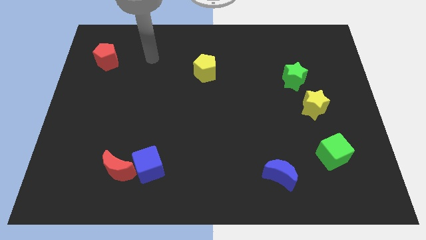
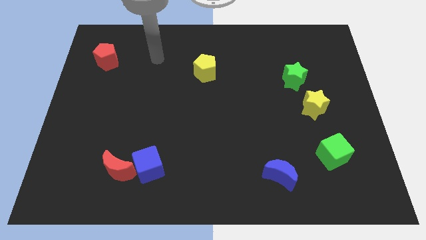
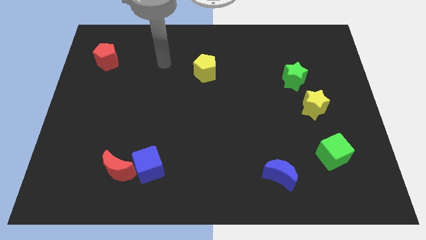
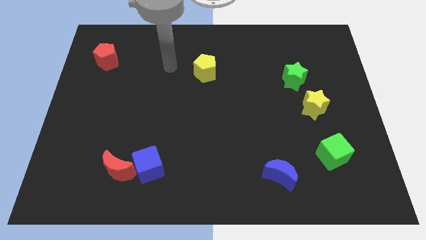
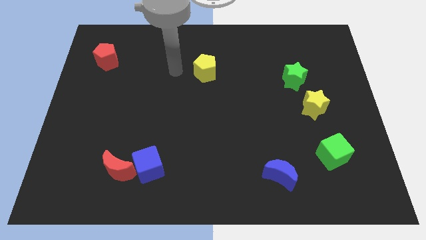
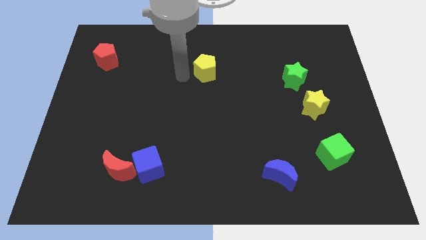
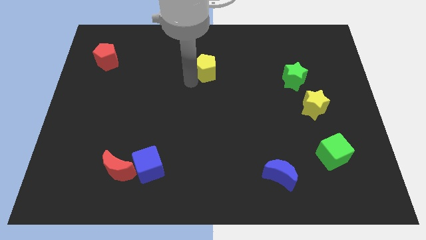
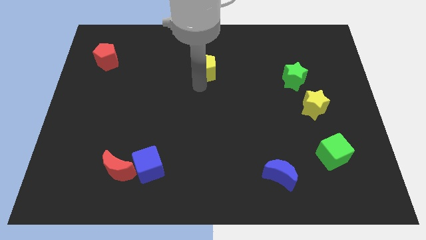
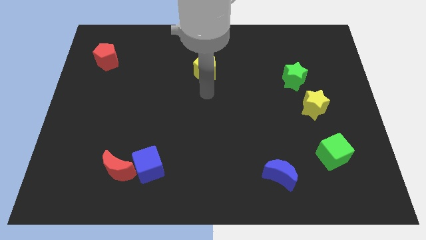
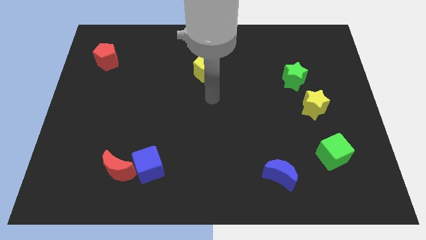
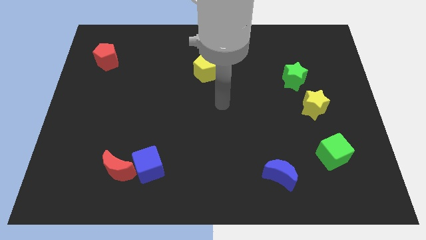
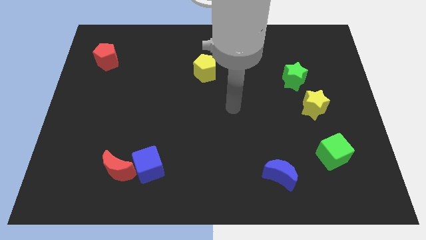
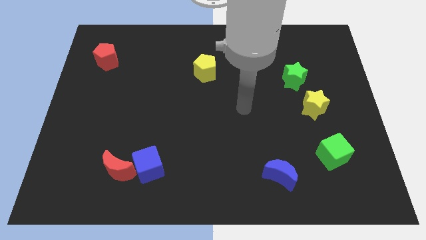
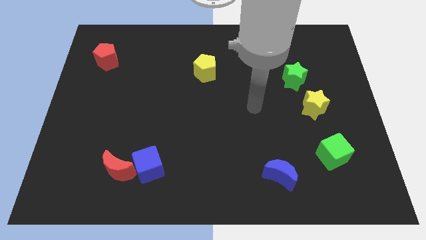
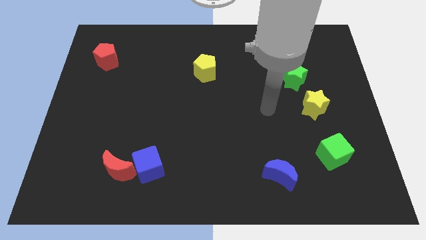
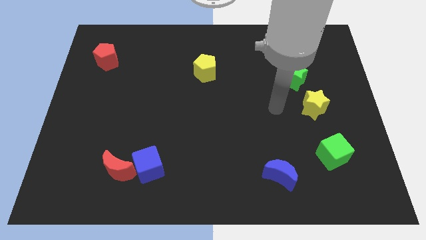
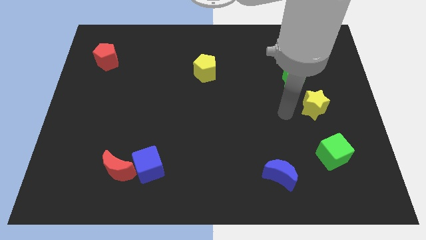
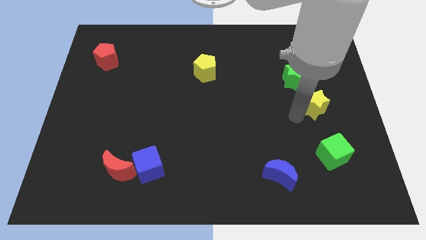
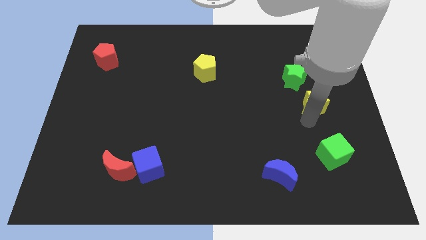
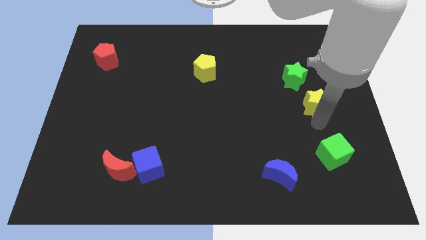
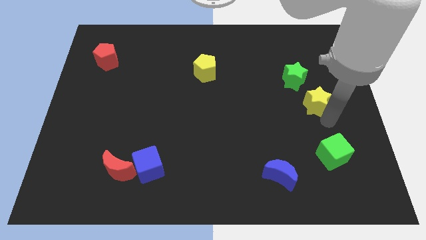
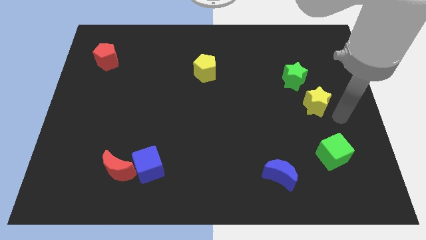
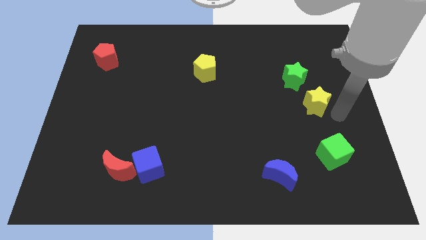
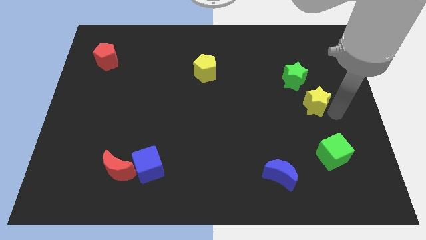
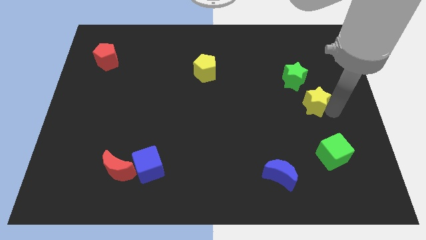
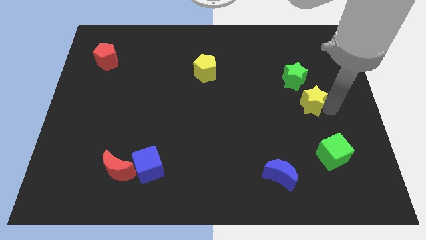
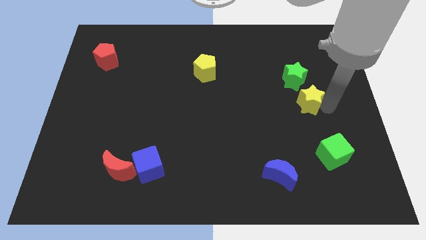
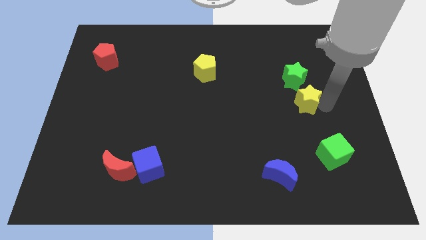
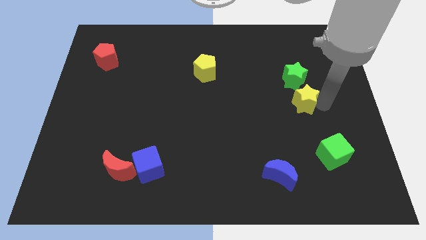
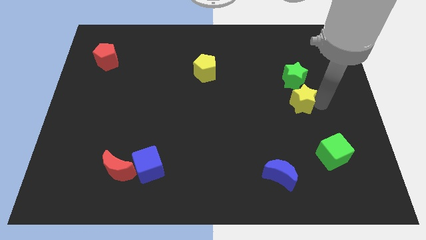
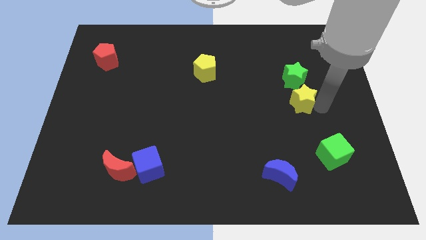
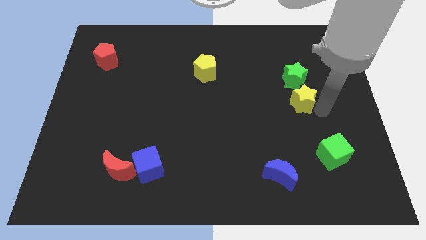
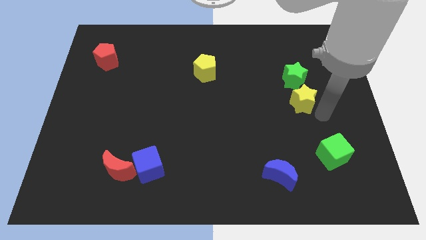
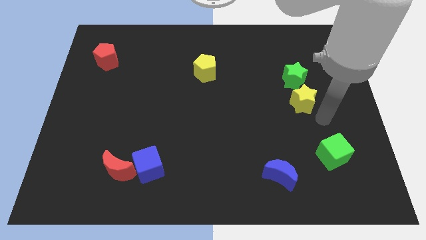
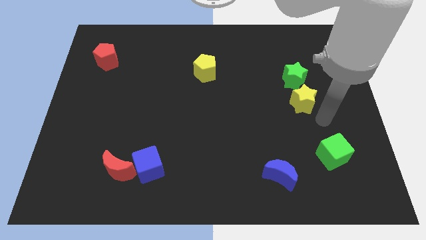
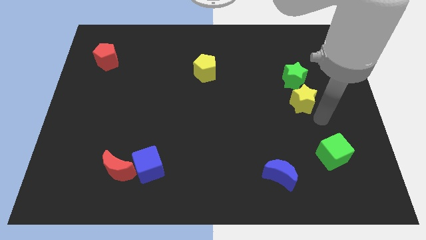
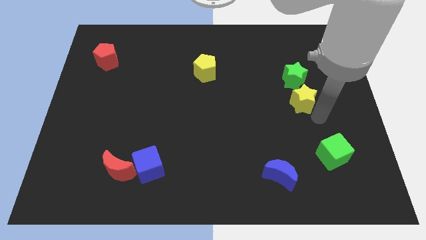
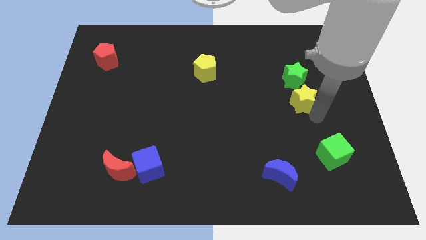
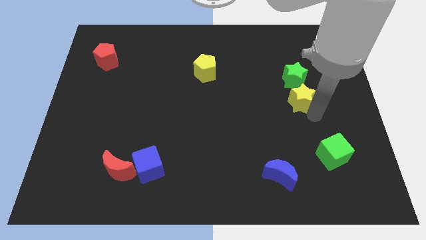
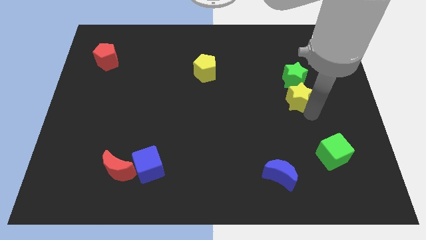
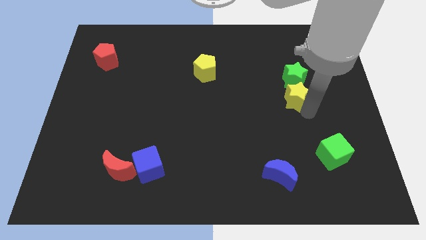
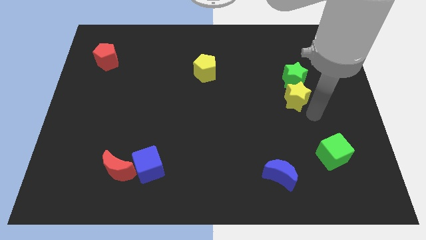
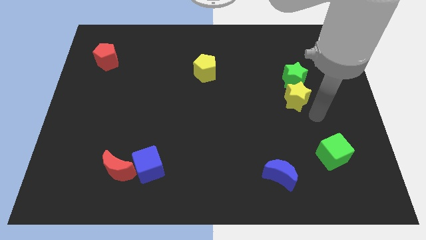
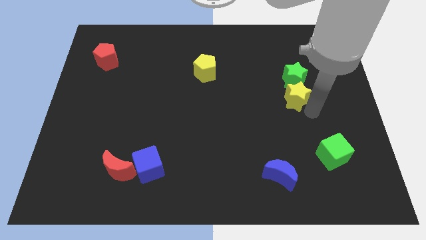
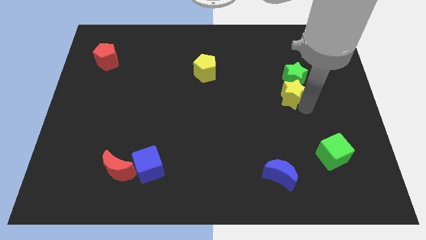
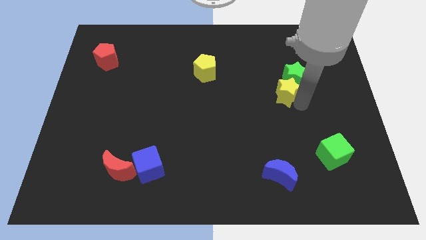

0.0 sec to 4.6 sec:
move the yellow star upwards and left somewhat

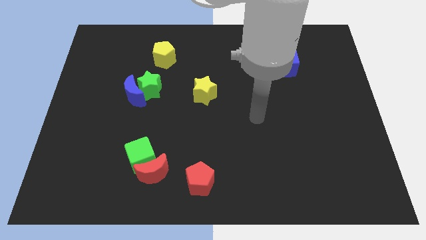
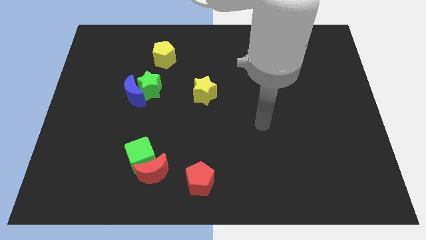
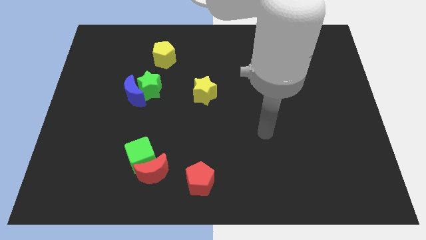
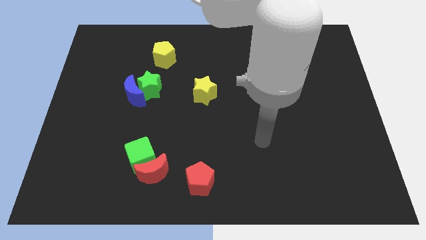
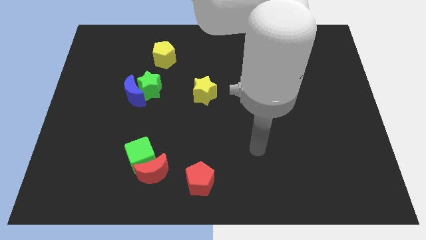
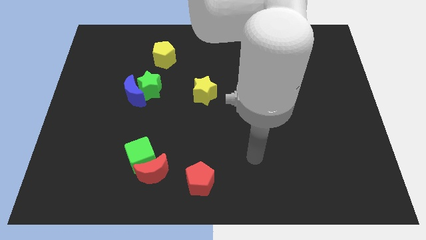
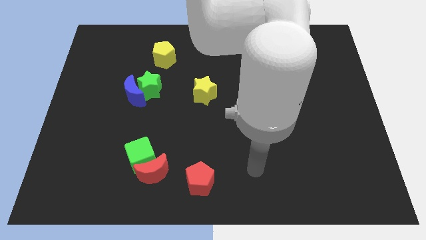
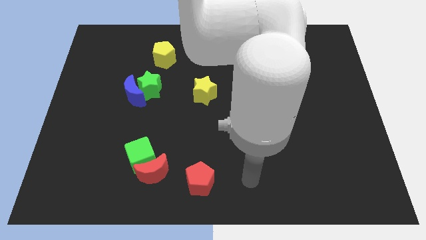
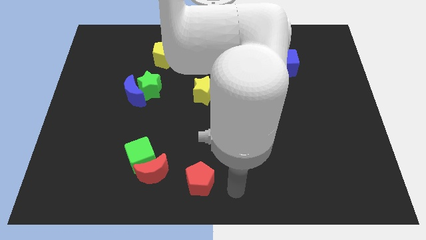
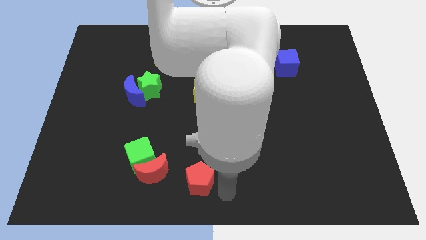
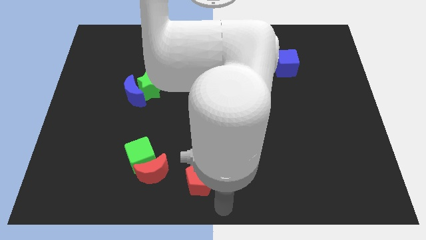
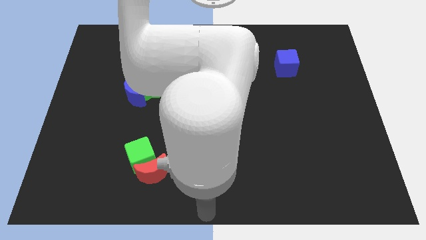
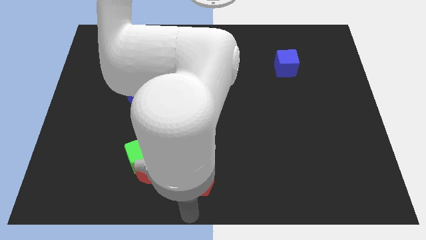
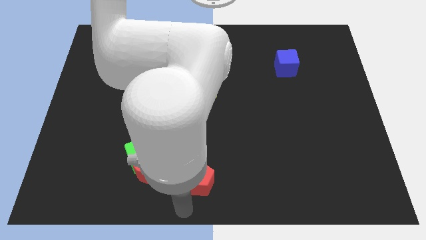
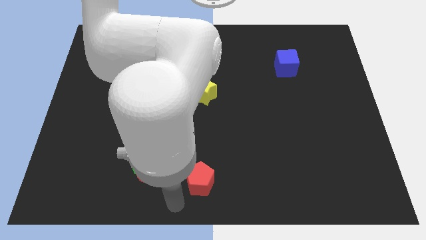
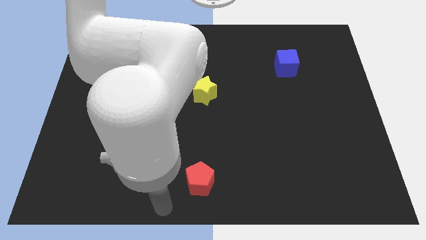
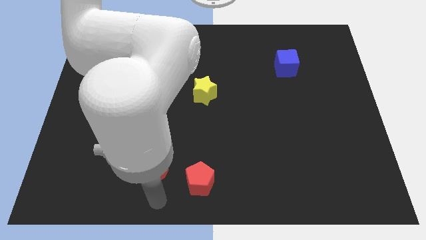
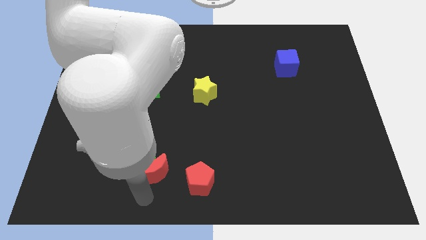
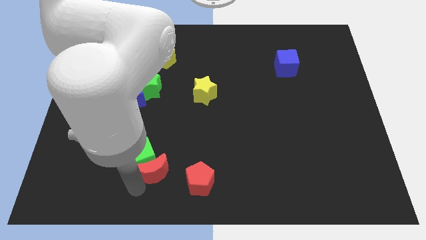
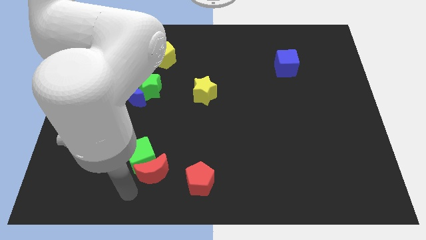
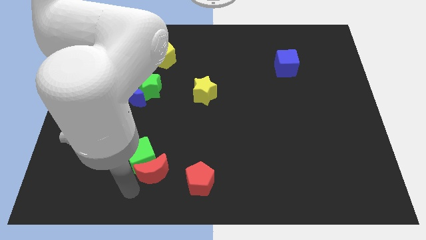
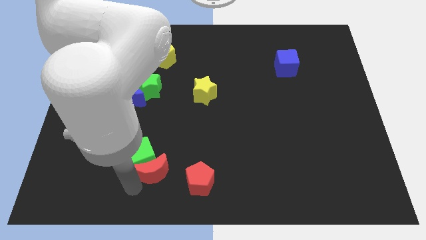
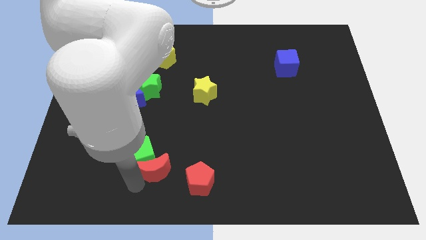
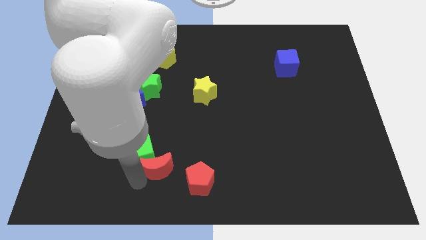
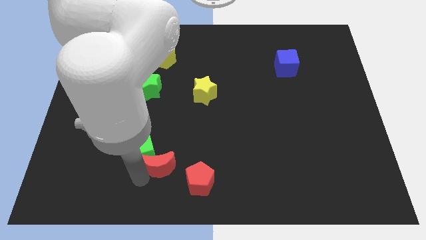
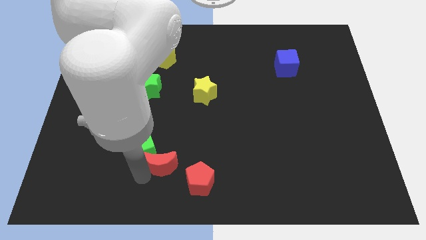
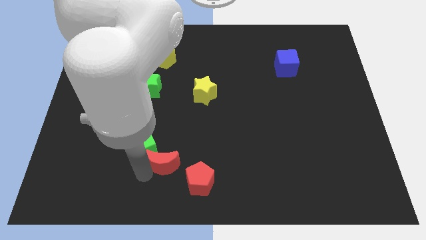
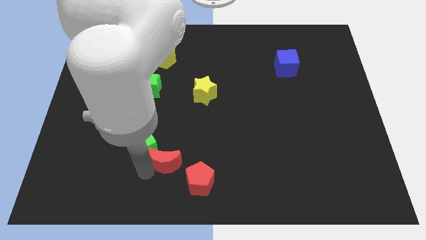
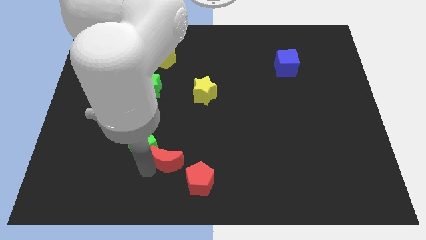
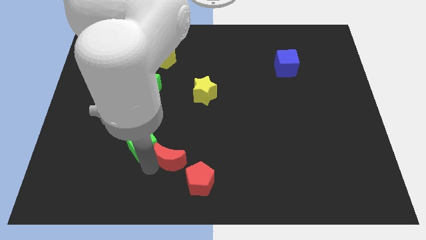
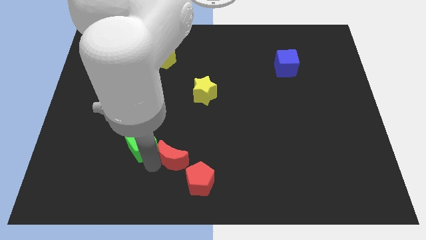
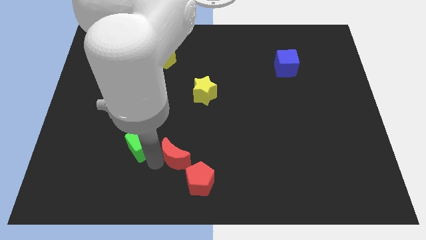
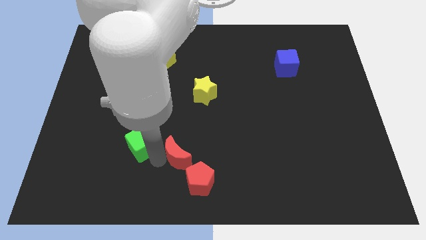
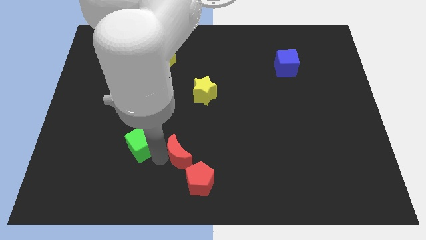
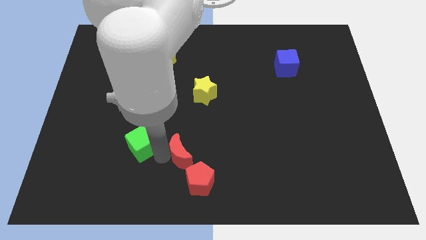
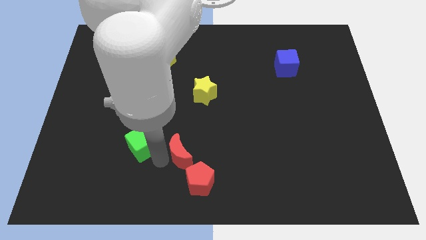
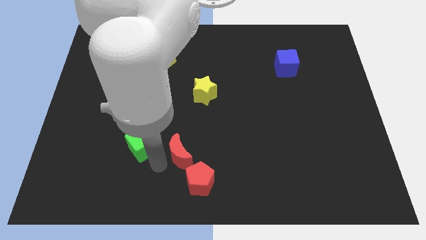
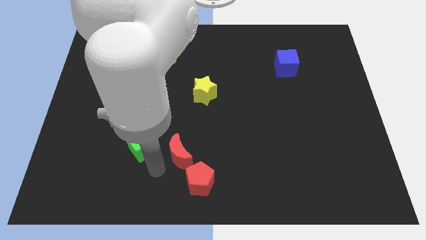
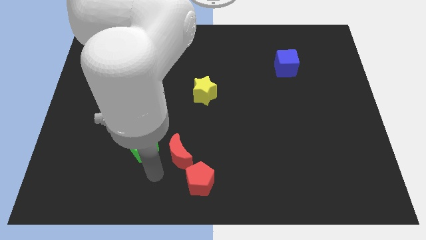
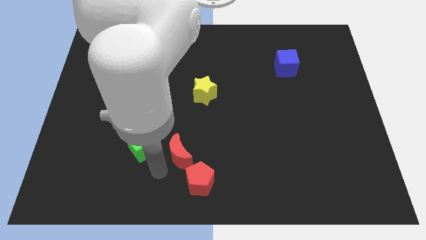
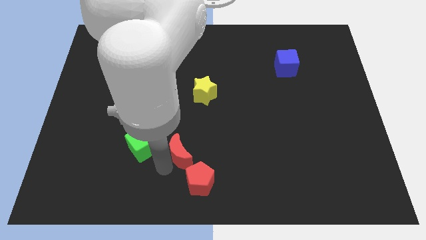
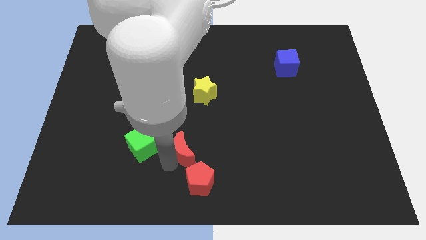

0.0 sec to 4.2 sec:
slightly slide the red moon diagonally upwards and right
